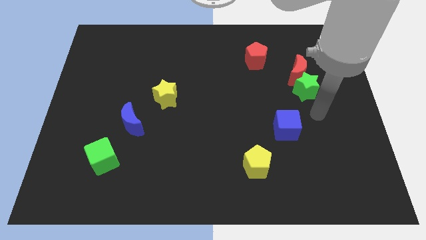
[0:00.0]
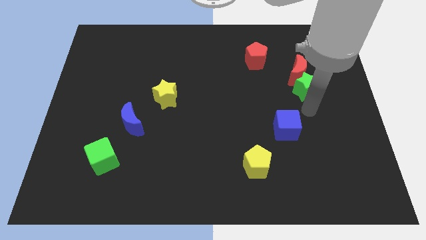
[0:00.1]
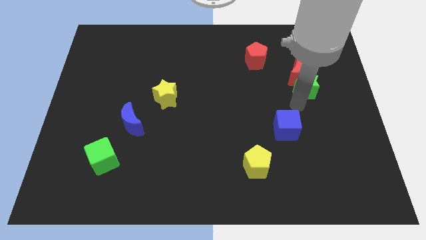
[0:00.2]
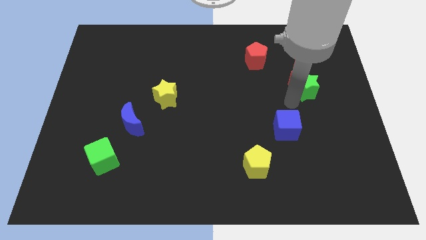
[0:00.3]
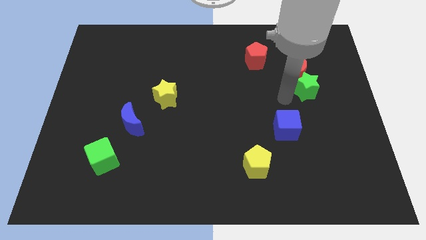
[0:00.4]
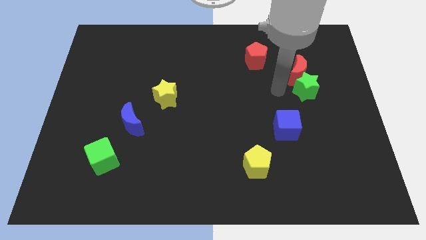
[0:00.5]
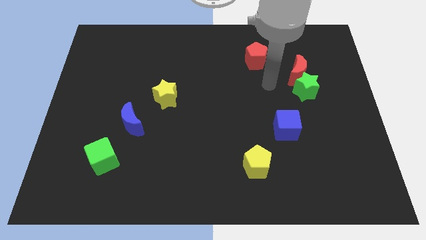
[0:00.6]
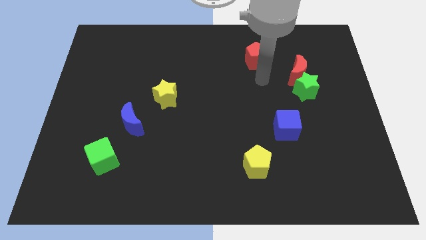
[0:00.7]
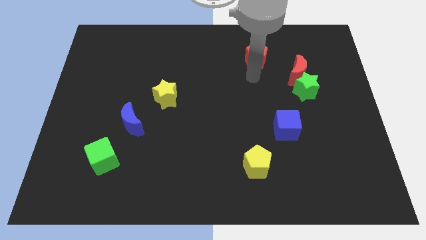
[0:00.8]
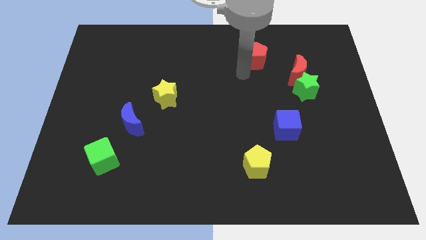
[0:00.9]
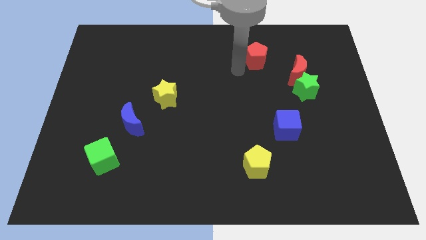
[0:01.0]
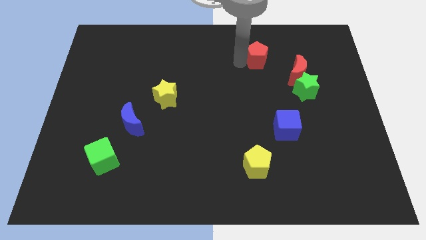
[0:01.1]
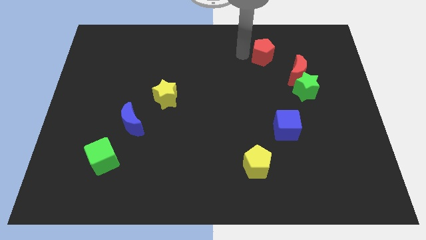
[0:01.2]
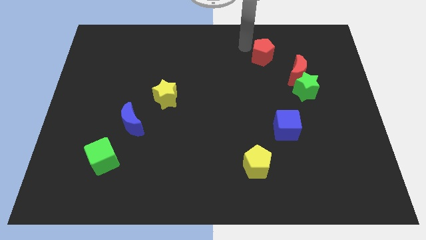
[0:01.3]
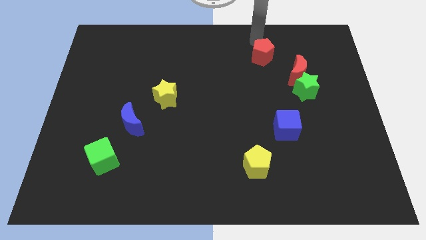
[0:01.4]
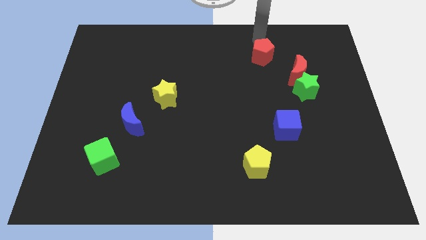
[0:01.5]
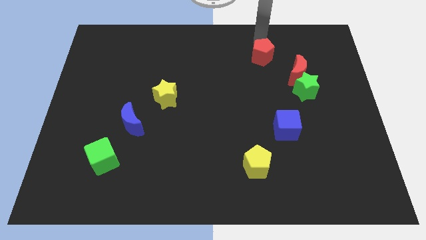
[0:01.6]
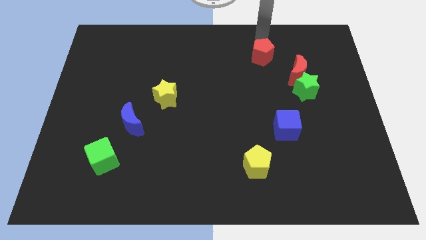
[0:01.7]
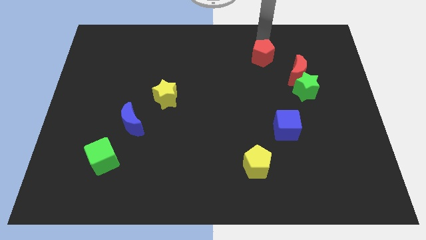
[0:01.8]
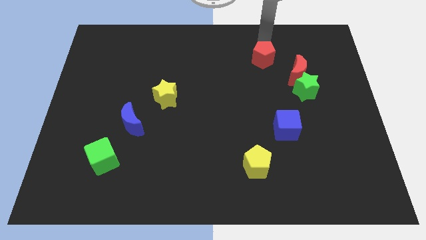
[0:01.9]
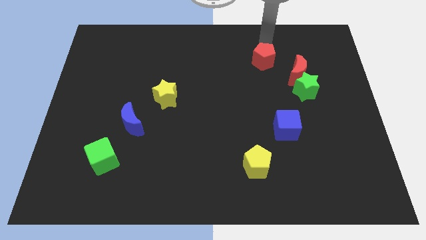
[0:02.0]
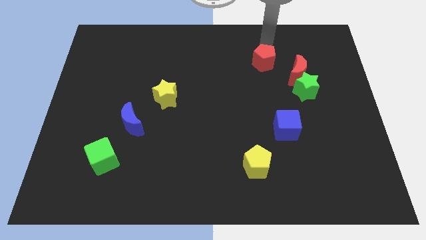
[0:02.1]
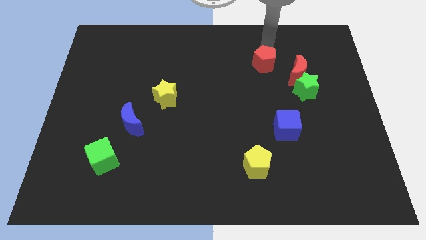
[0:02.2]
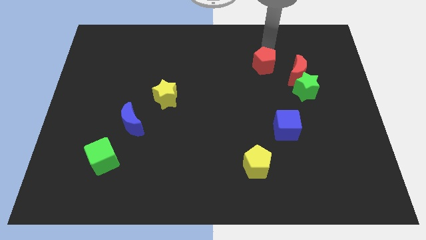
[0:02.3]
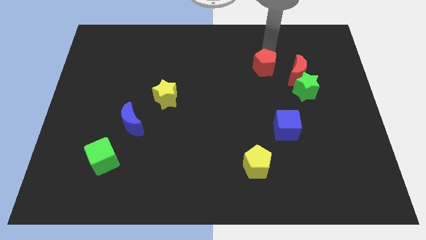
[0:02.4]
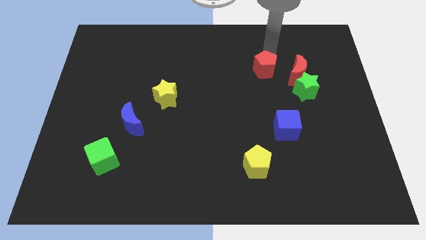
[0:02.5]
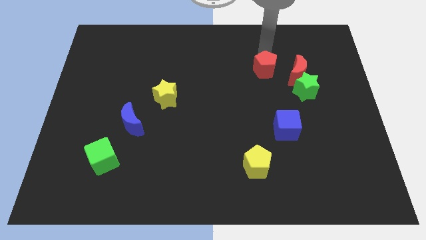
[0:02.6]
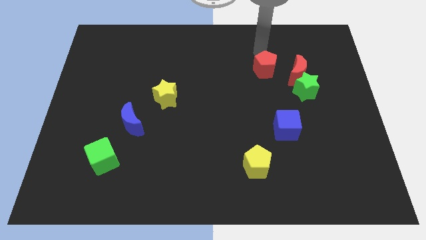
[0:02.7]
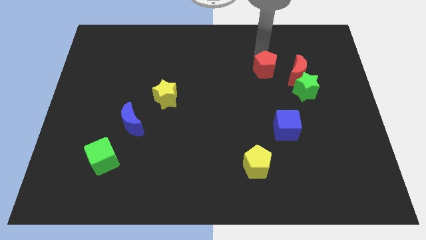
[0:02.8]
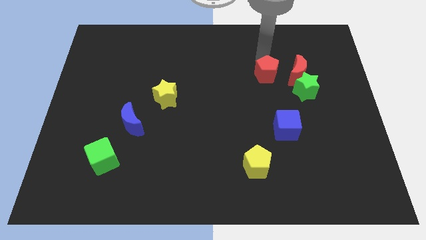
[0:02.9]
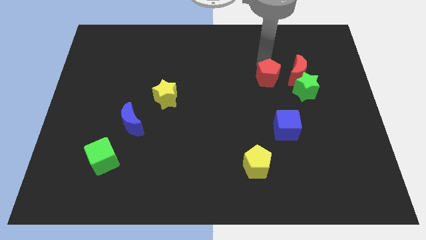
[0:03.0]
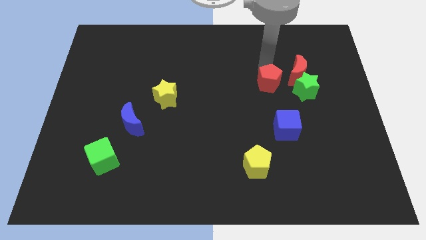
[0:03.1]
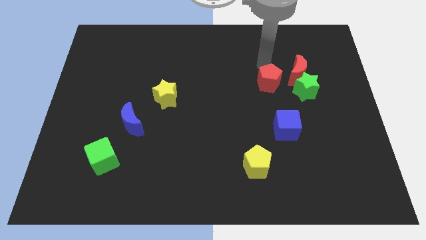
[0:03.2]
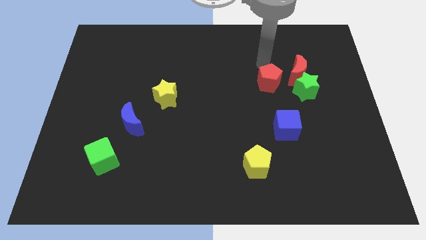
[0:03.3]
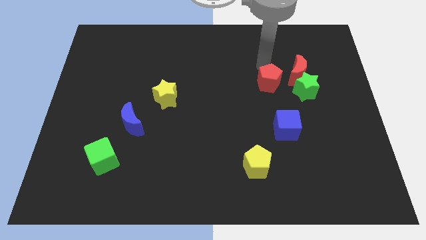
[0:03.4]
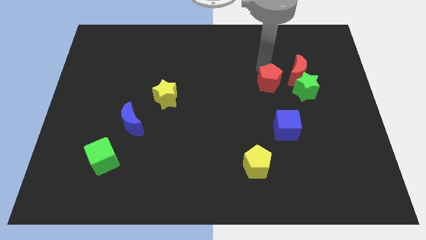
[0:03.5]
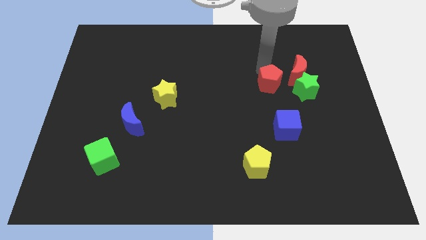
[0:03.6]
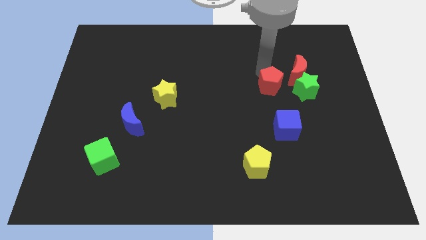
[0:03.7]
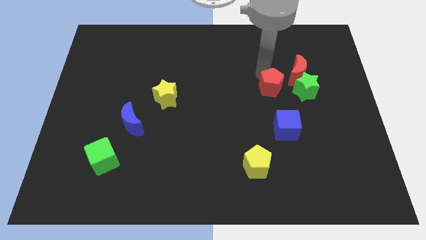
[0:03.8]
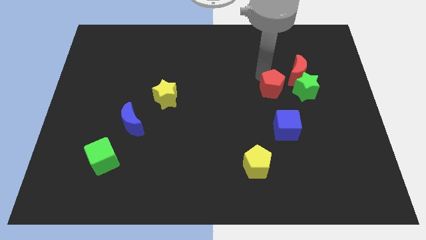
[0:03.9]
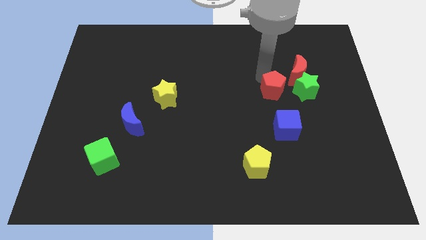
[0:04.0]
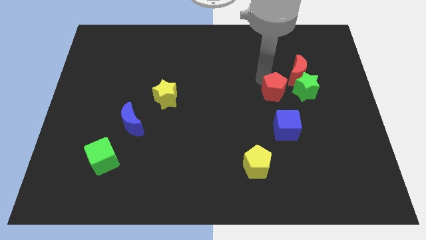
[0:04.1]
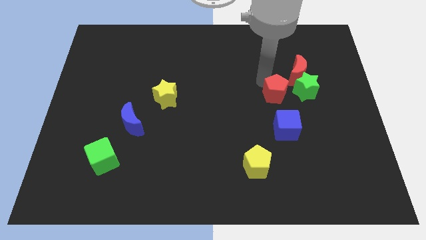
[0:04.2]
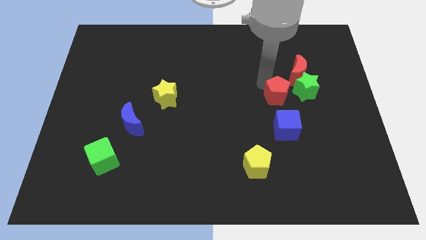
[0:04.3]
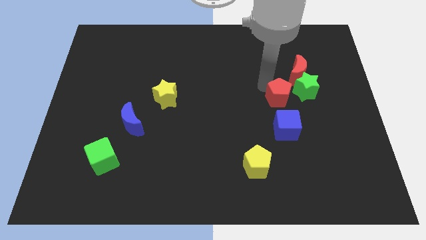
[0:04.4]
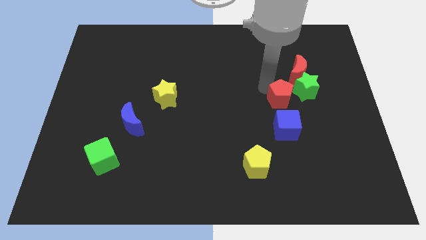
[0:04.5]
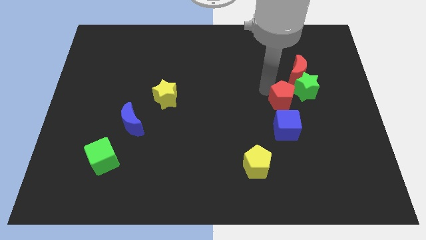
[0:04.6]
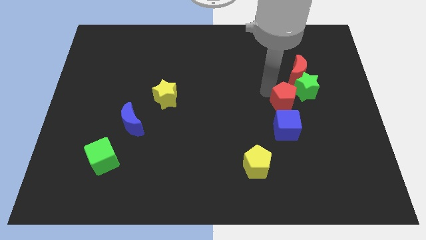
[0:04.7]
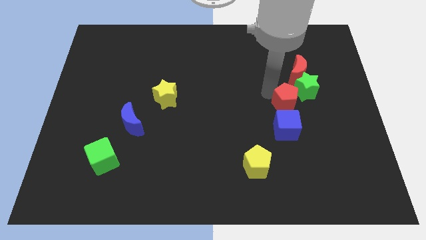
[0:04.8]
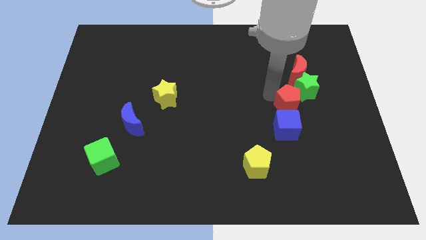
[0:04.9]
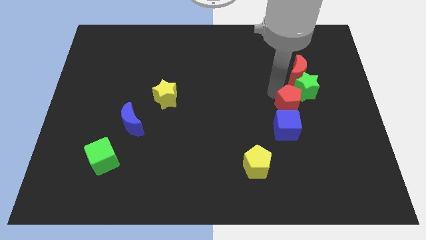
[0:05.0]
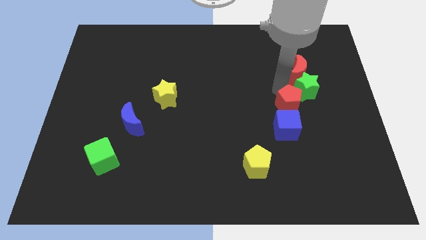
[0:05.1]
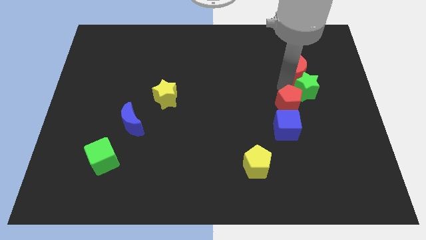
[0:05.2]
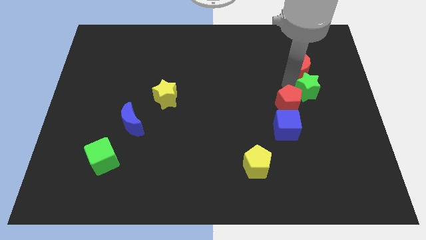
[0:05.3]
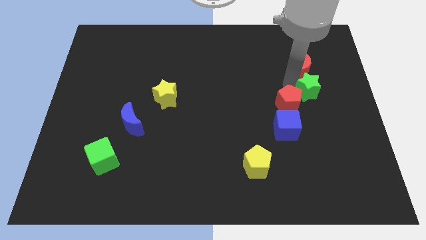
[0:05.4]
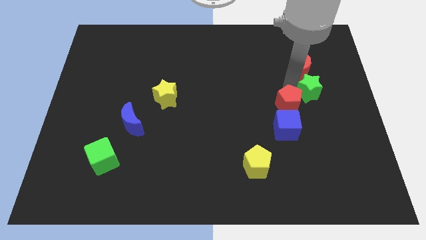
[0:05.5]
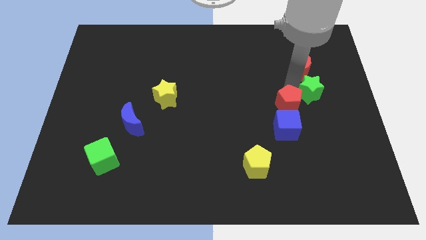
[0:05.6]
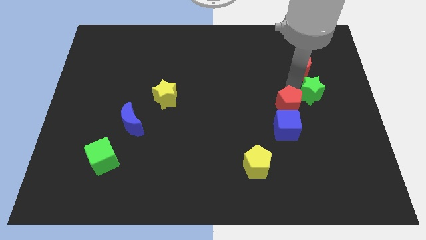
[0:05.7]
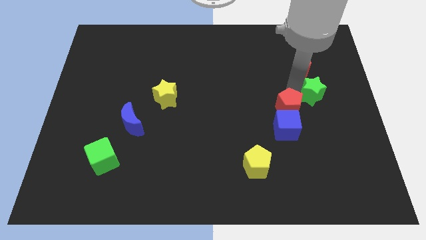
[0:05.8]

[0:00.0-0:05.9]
slide the red pentagon towards the blue cube

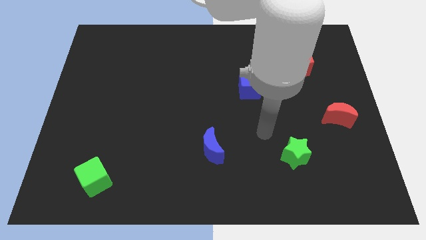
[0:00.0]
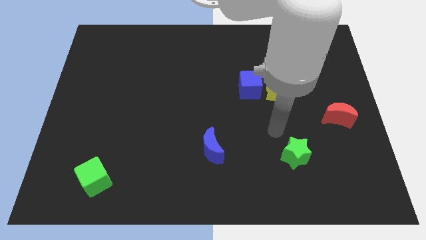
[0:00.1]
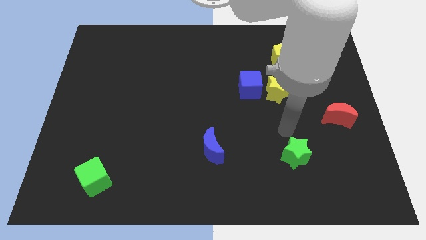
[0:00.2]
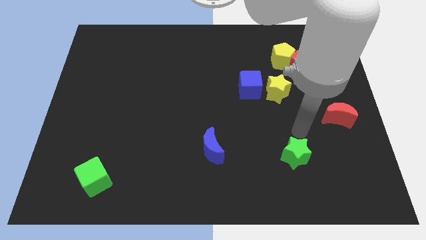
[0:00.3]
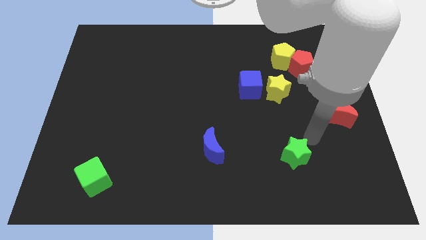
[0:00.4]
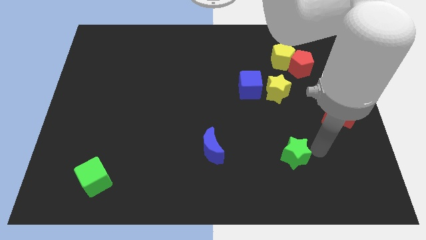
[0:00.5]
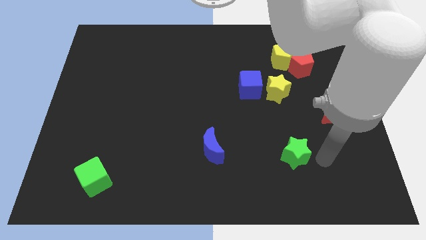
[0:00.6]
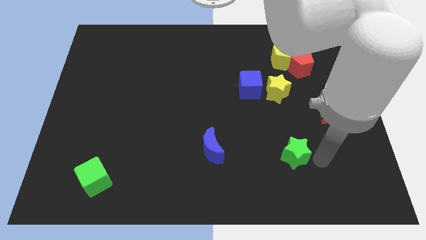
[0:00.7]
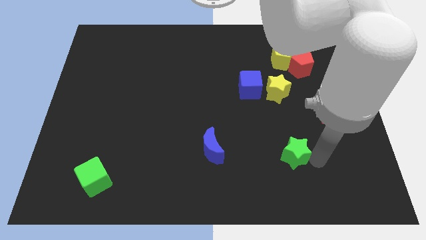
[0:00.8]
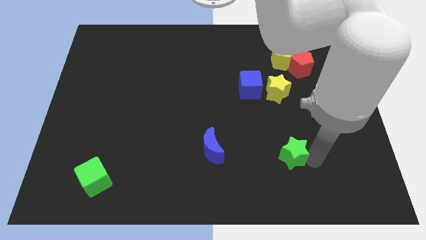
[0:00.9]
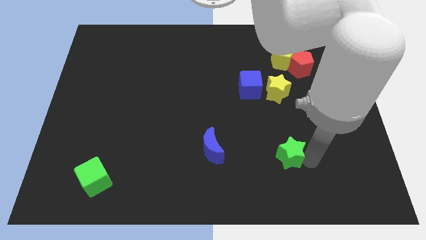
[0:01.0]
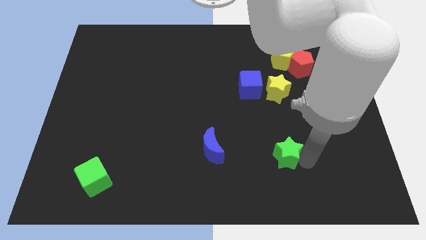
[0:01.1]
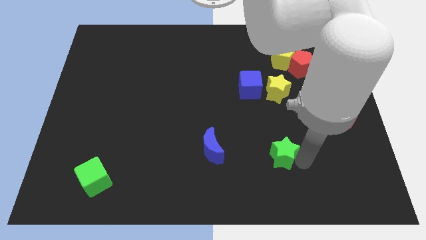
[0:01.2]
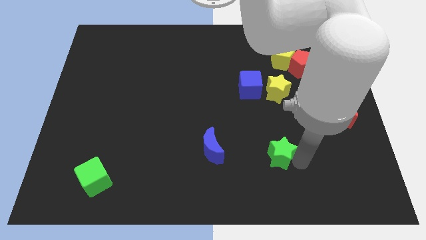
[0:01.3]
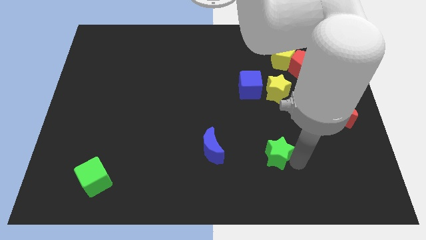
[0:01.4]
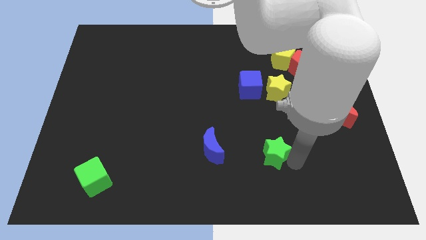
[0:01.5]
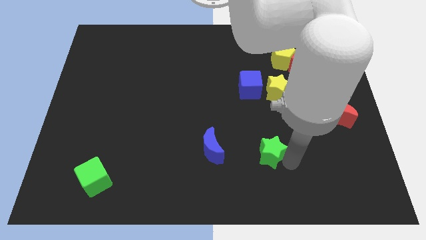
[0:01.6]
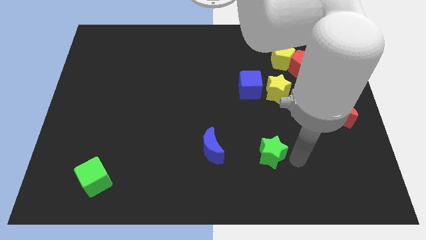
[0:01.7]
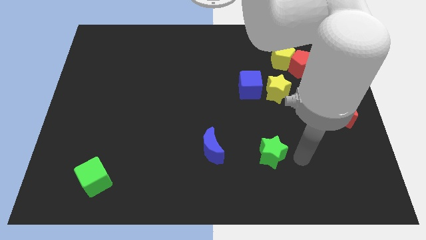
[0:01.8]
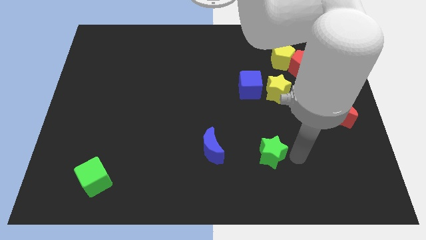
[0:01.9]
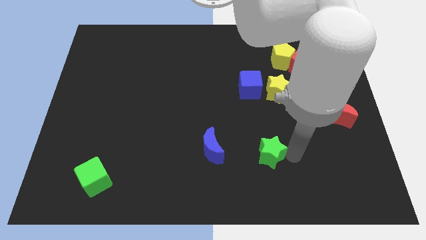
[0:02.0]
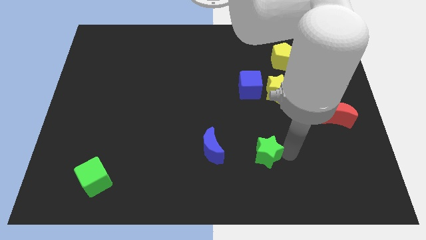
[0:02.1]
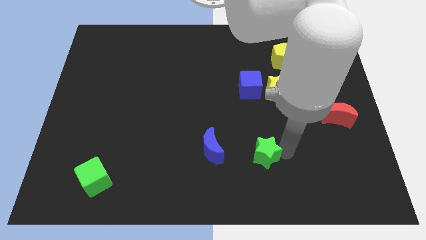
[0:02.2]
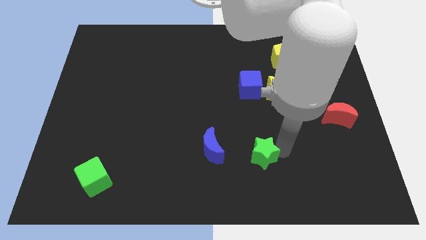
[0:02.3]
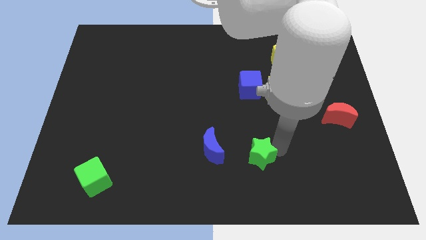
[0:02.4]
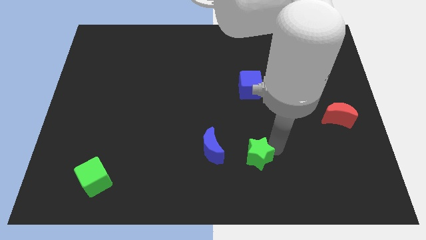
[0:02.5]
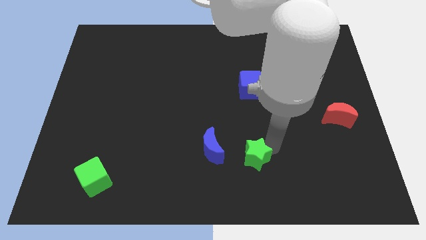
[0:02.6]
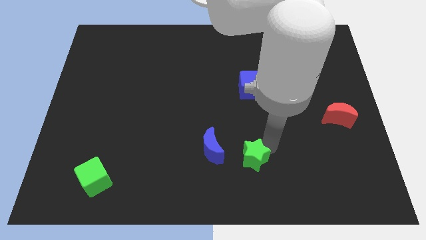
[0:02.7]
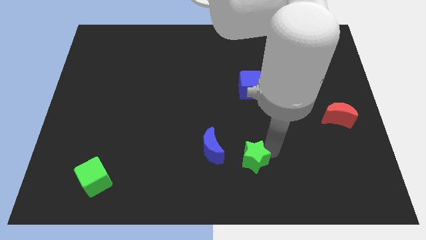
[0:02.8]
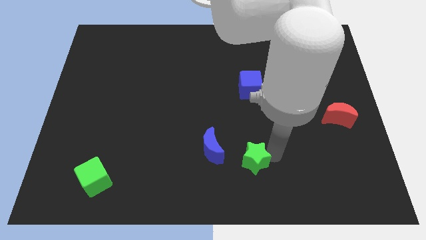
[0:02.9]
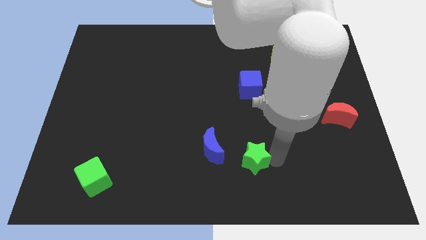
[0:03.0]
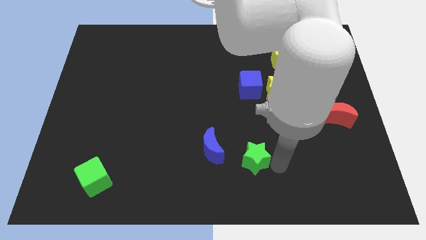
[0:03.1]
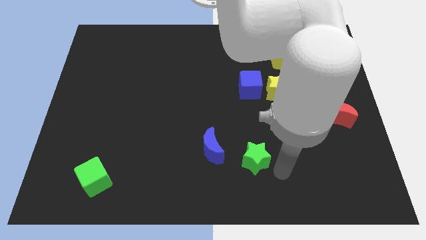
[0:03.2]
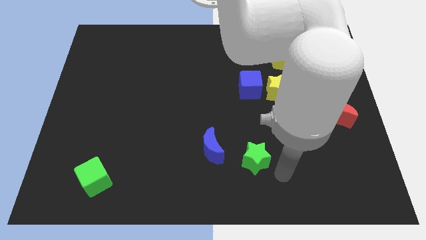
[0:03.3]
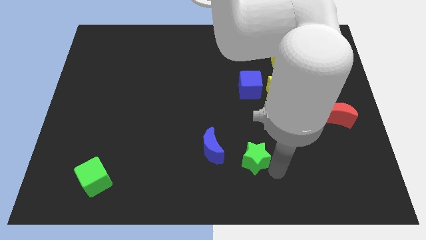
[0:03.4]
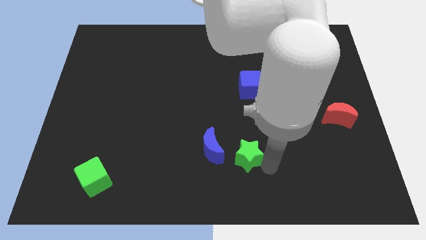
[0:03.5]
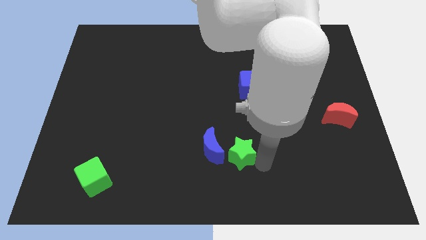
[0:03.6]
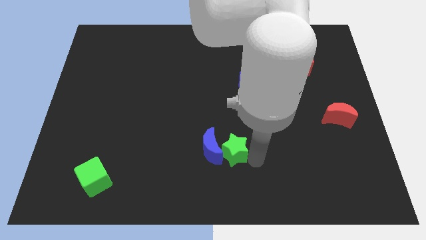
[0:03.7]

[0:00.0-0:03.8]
put the green star next to the blue moon
